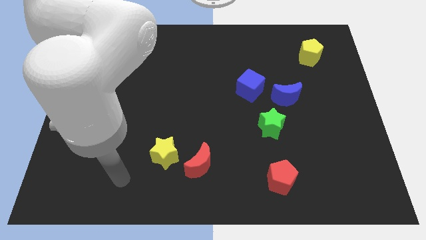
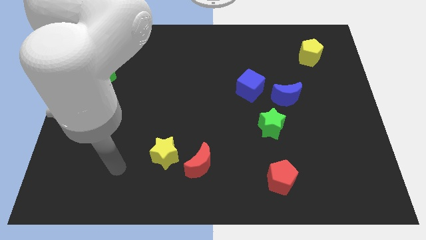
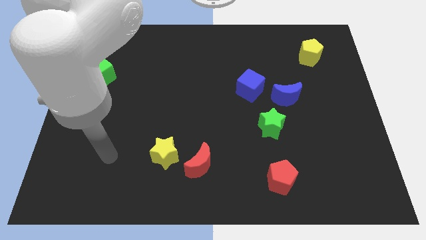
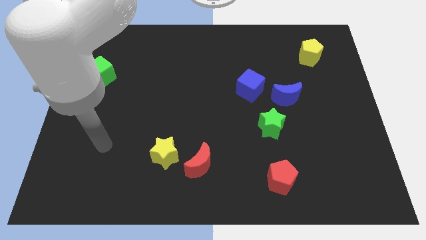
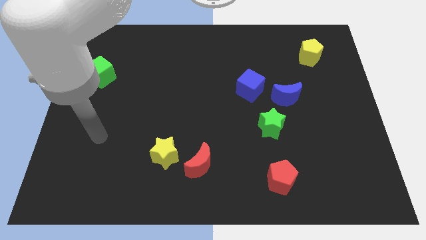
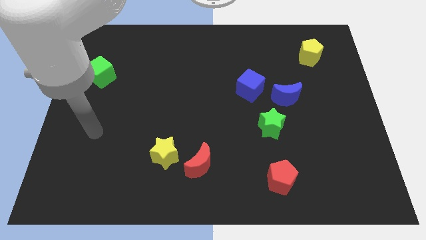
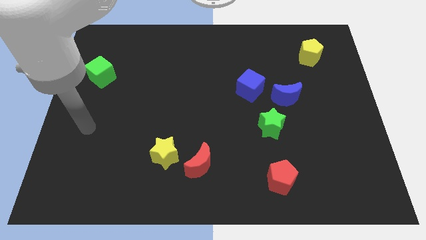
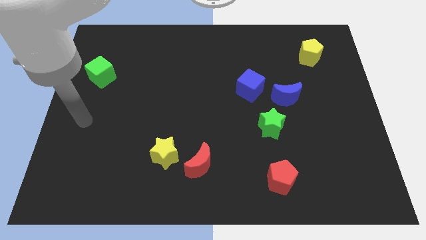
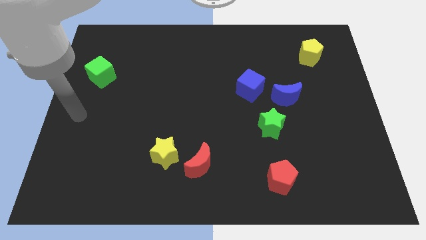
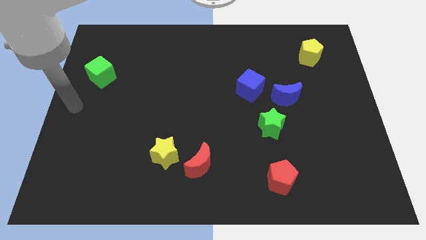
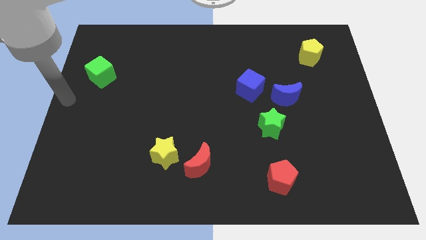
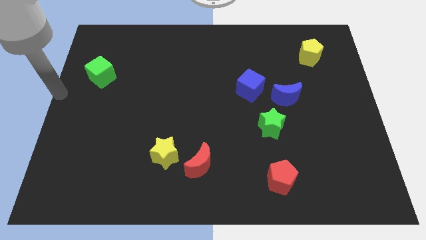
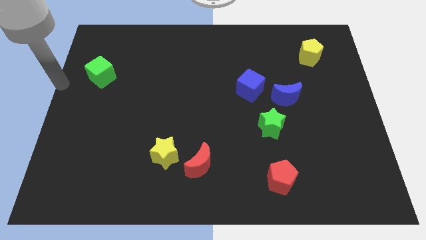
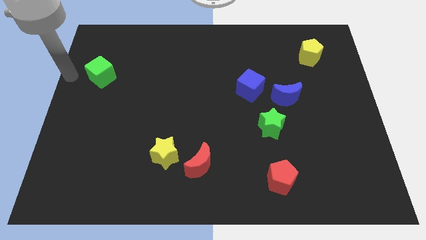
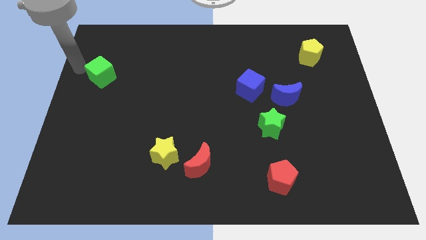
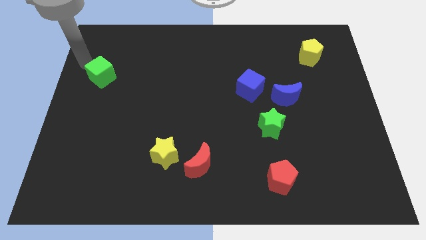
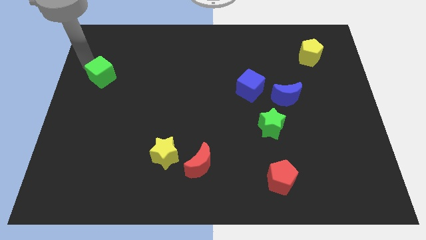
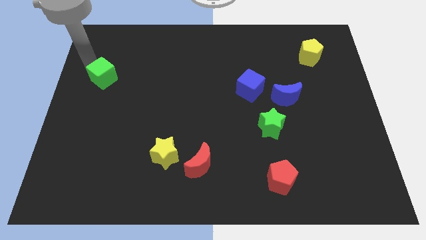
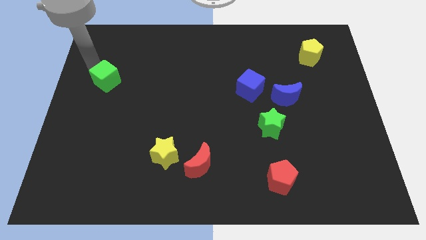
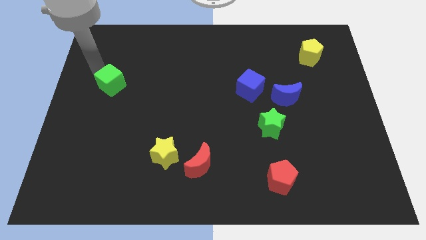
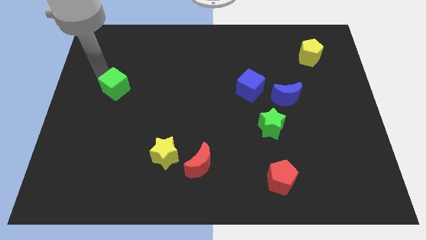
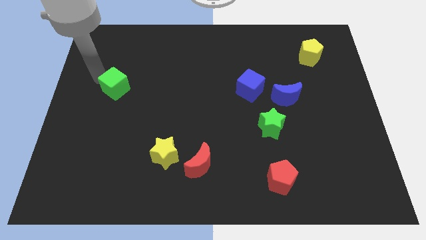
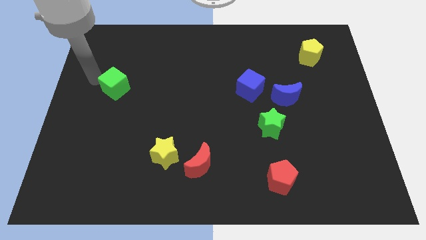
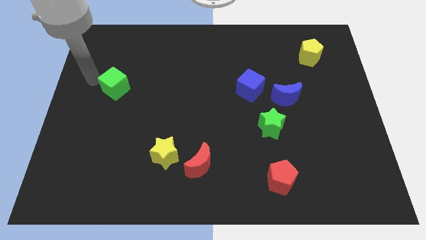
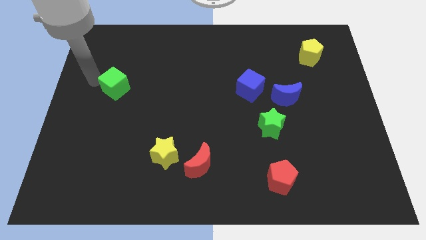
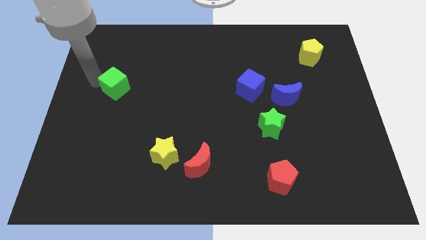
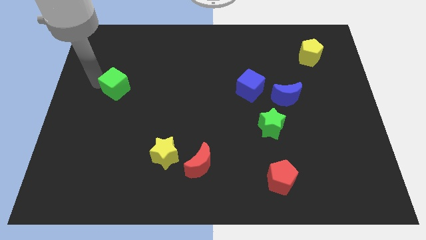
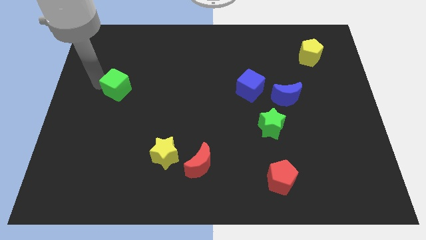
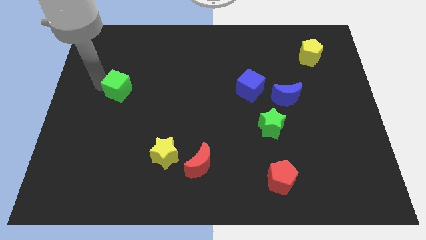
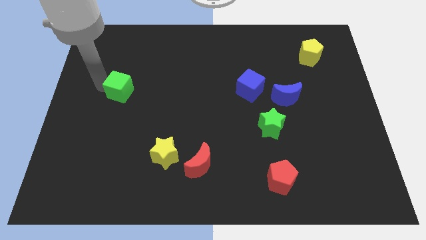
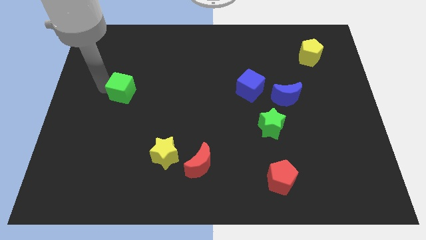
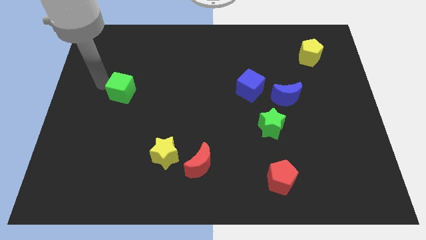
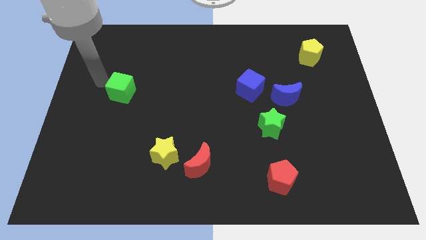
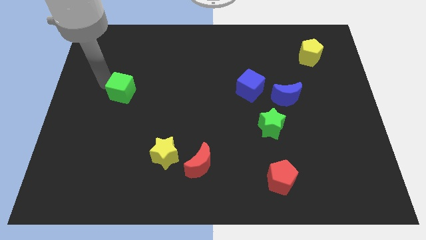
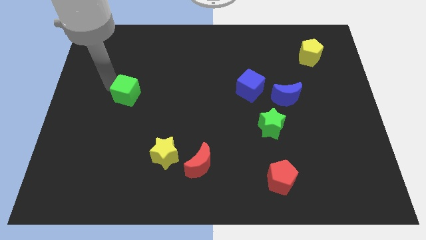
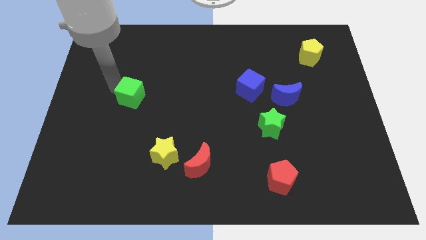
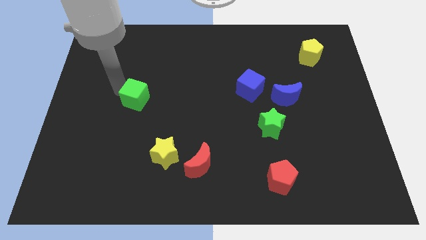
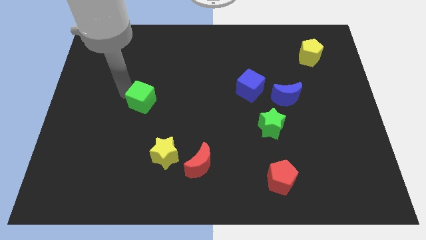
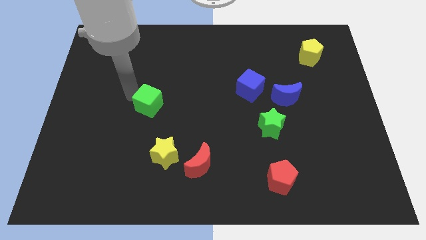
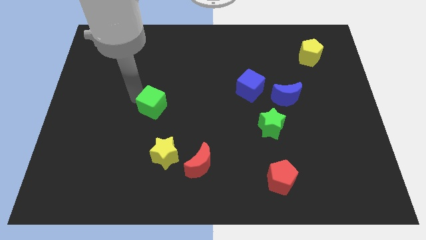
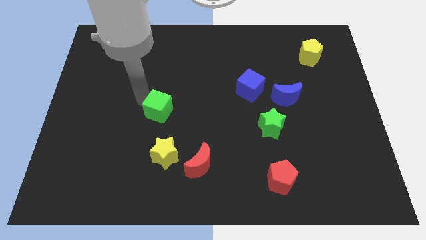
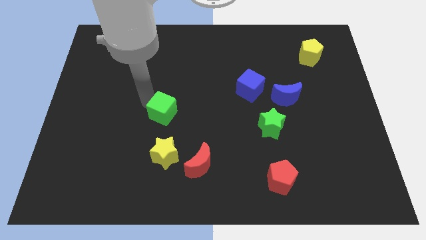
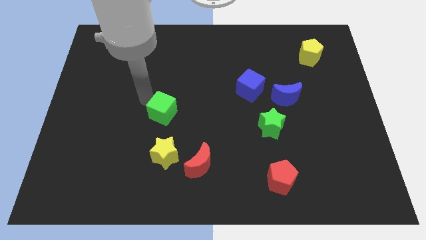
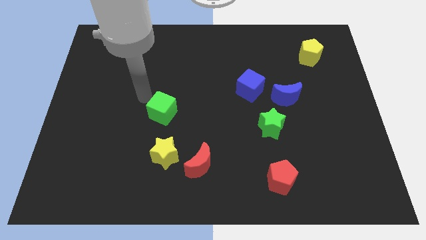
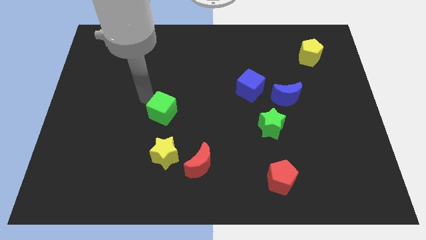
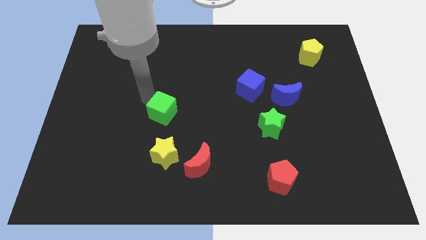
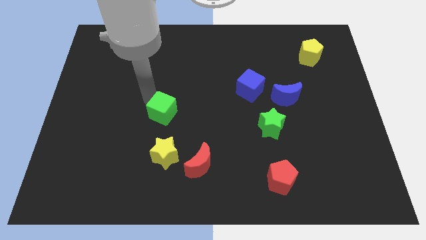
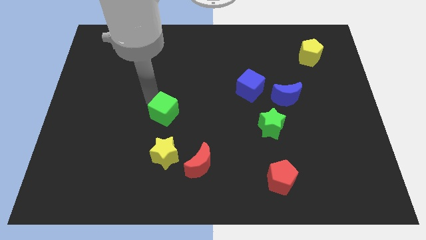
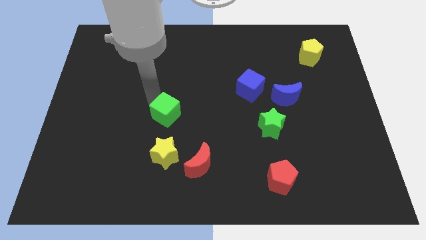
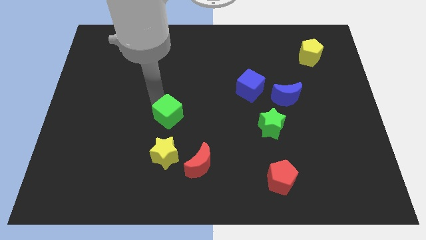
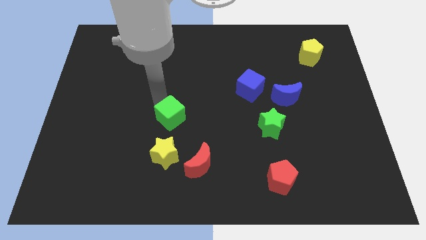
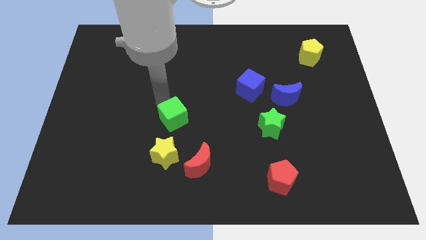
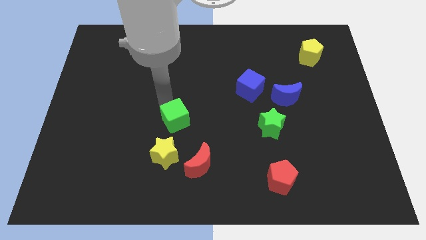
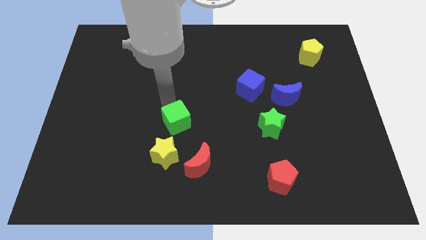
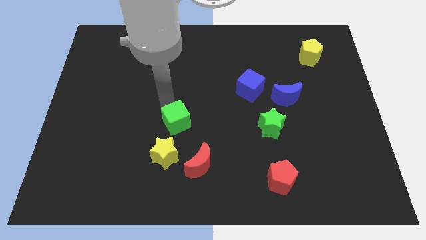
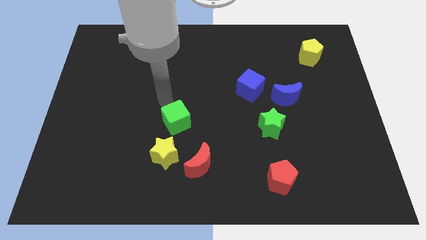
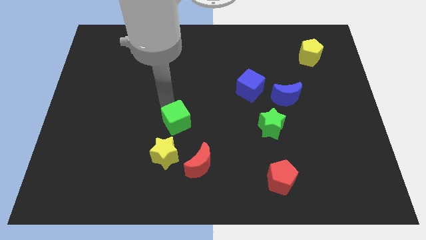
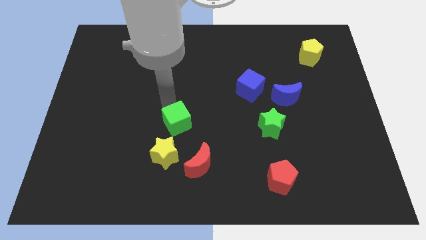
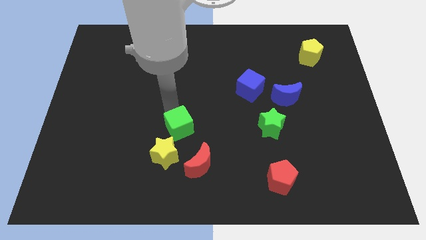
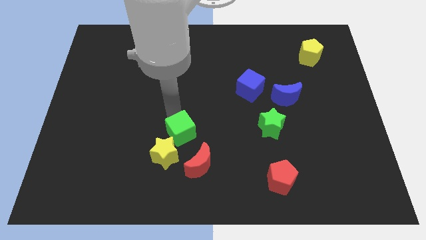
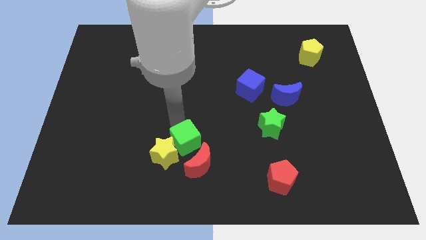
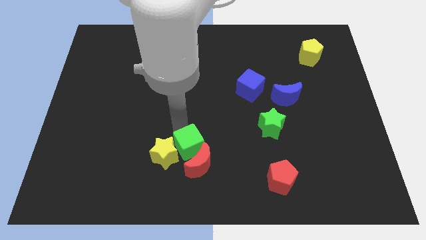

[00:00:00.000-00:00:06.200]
put the green cube towards the red moon

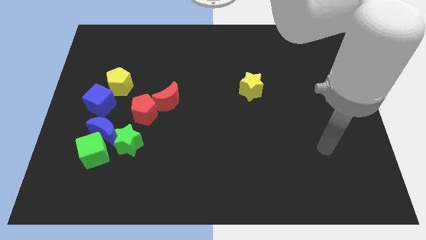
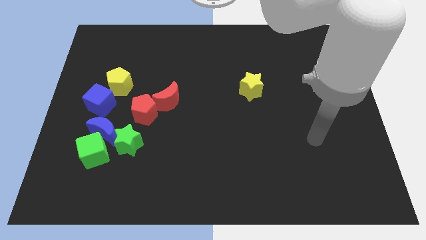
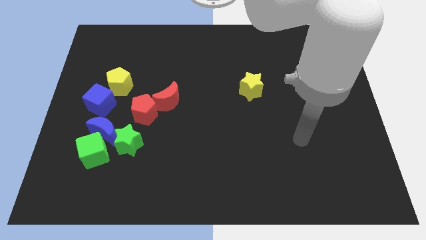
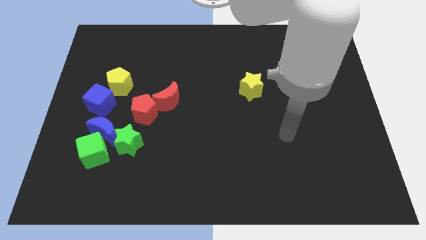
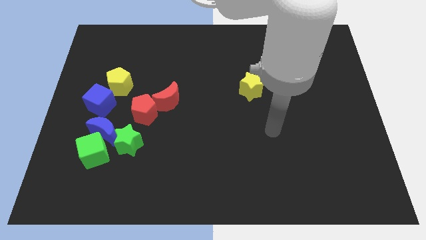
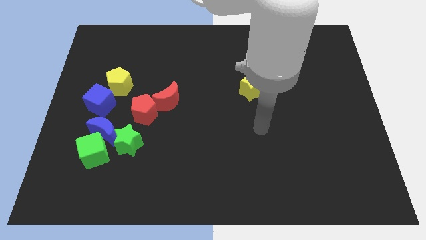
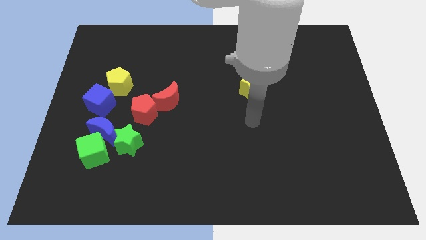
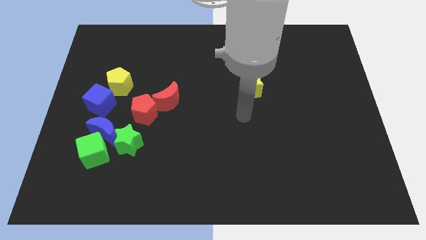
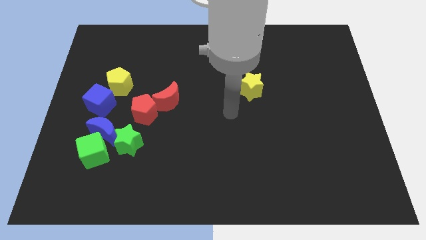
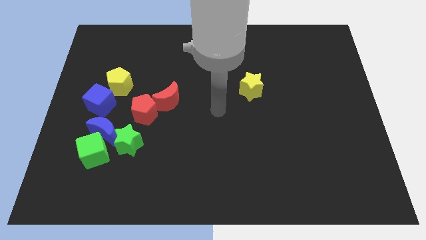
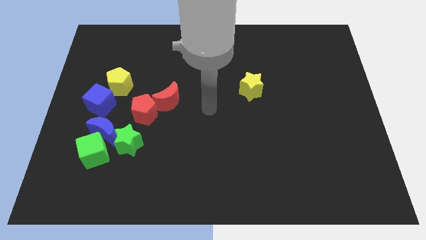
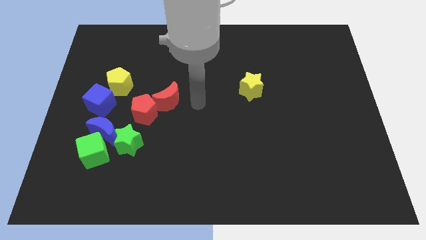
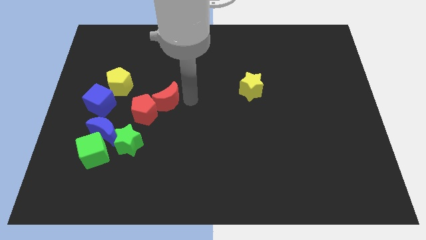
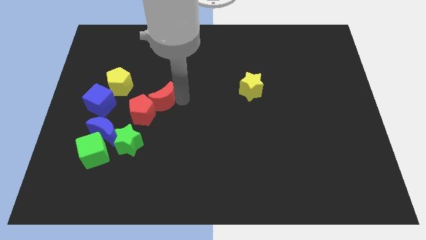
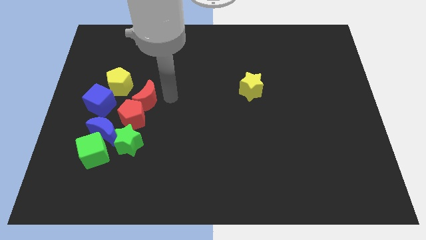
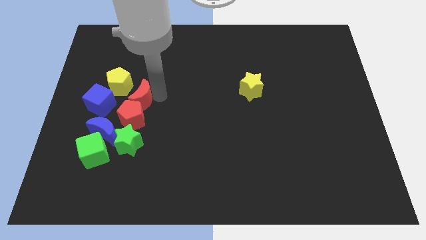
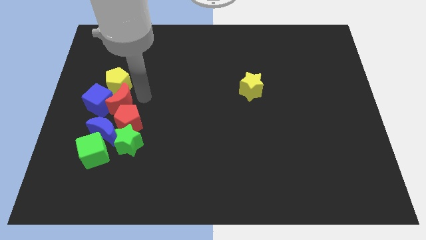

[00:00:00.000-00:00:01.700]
put the red pentagon next to the green star
